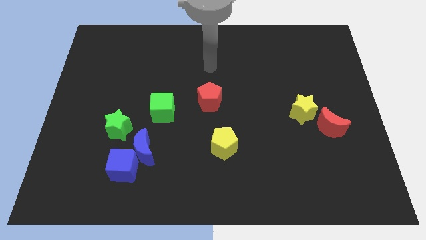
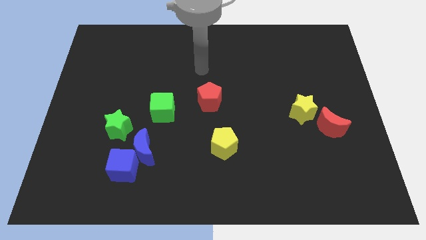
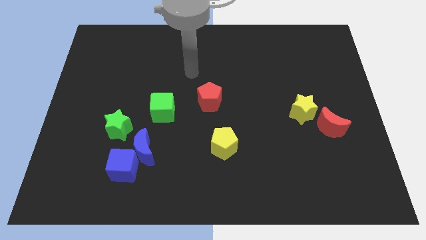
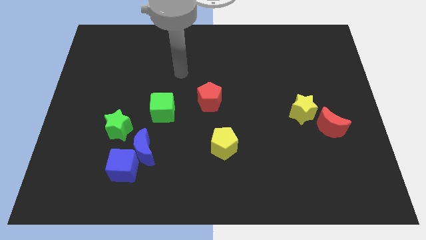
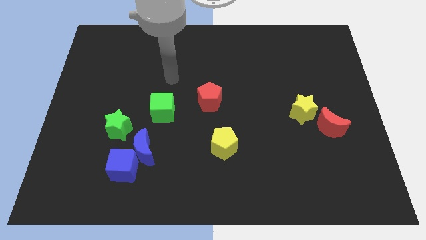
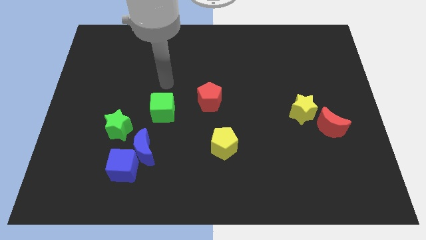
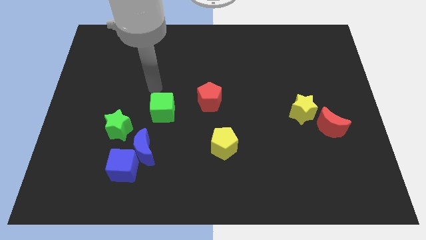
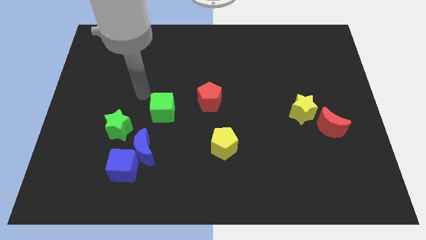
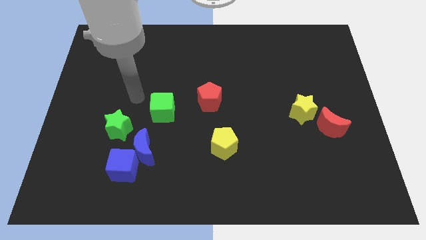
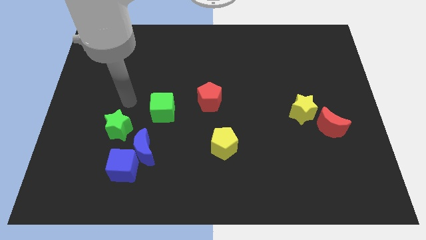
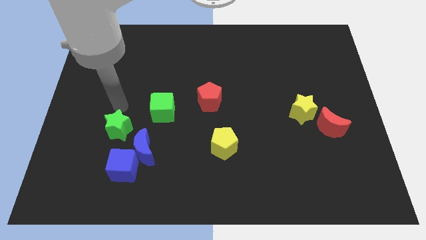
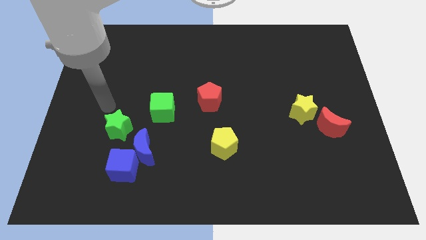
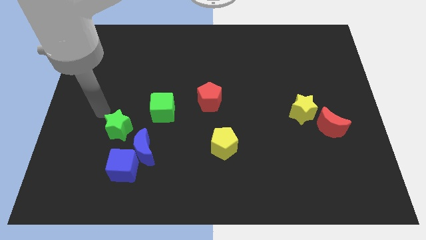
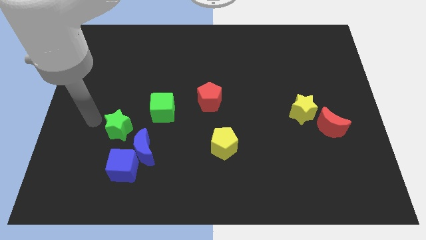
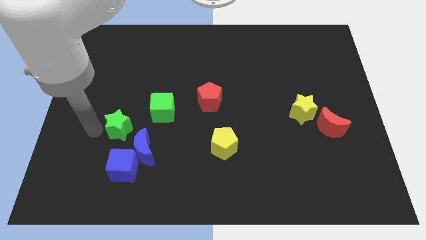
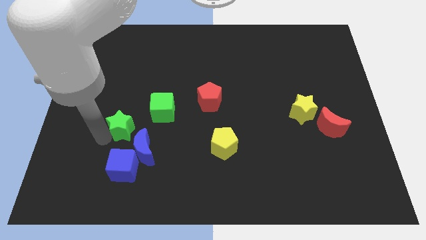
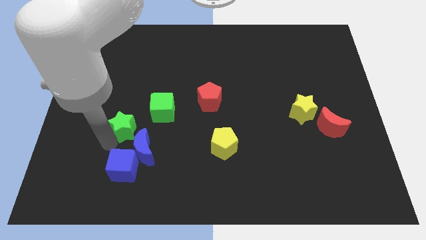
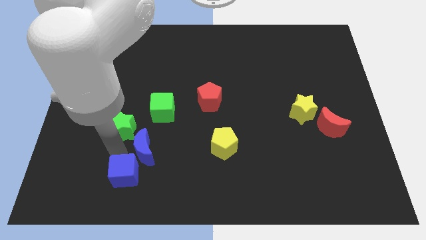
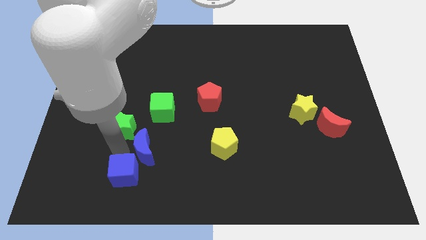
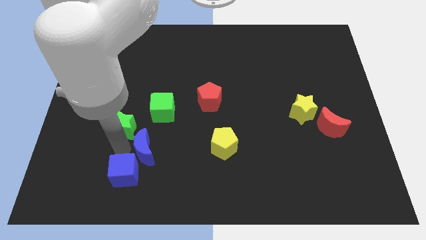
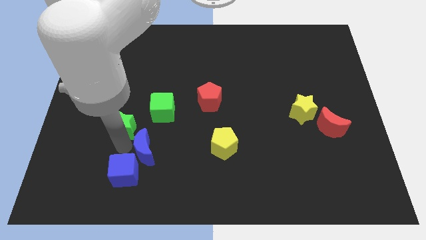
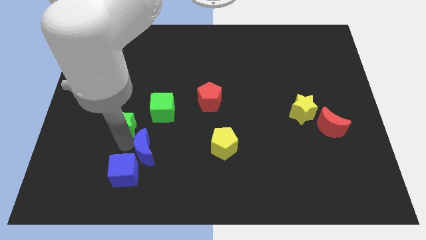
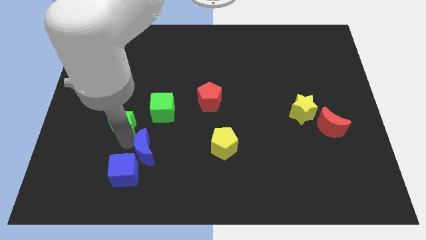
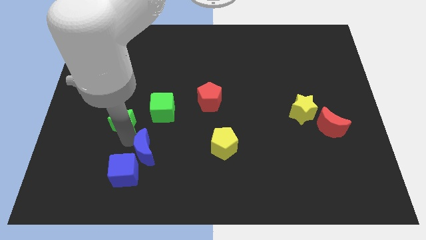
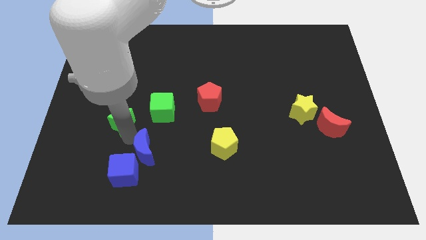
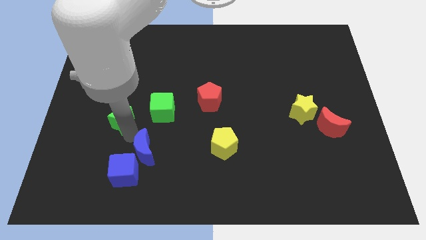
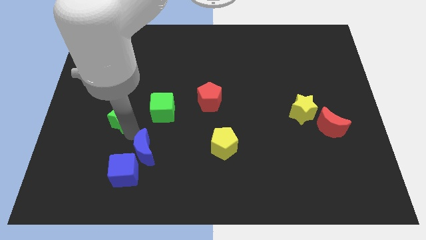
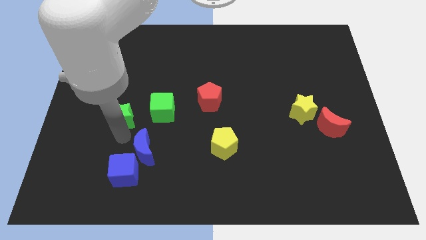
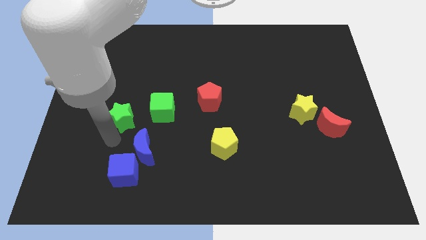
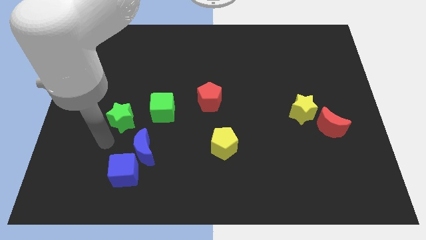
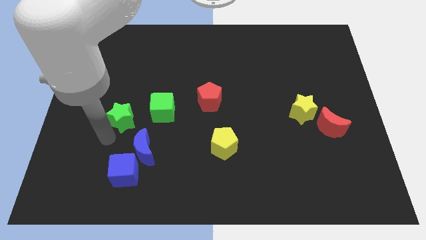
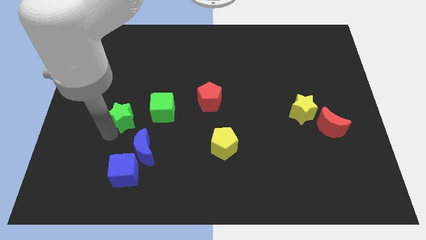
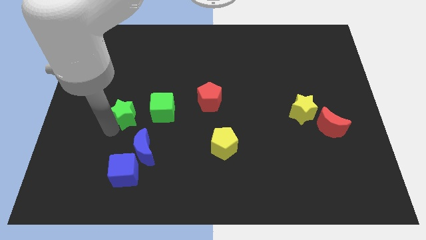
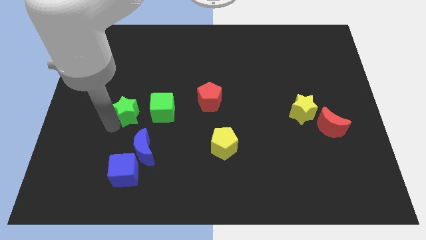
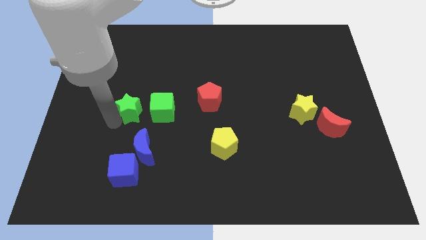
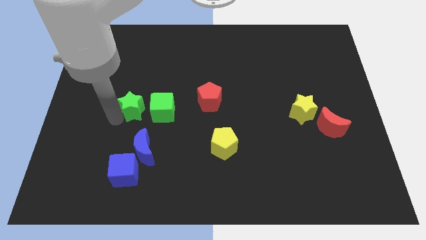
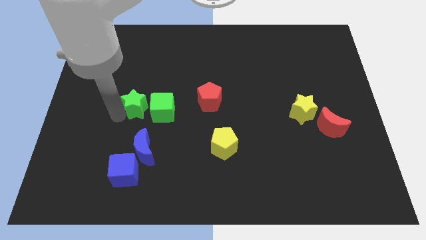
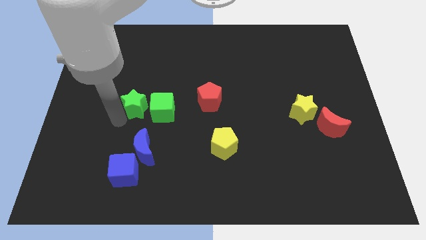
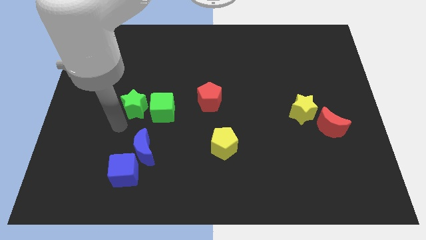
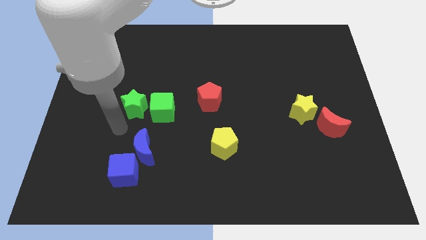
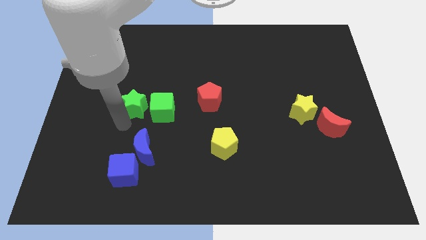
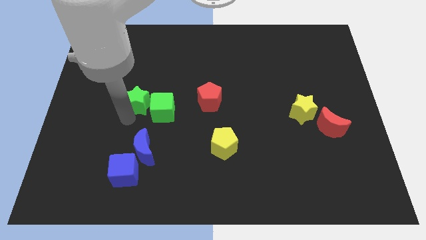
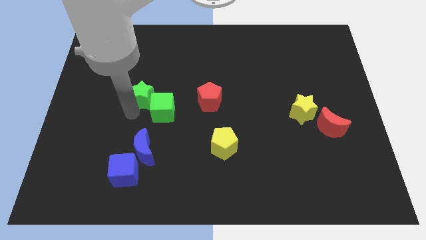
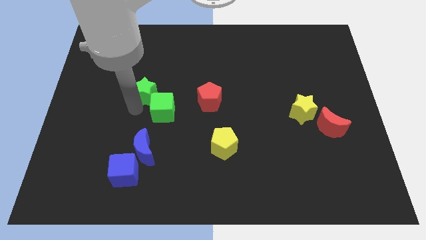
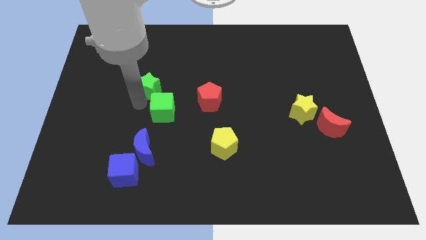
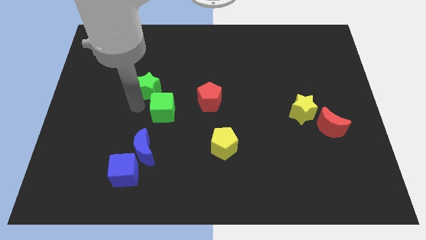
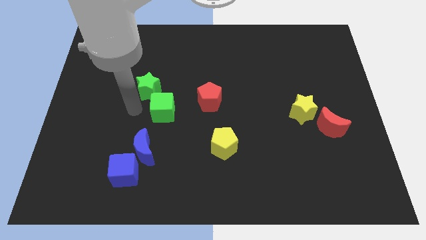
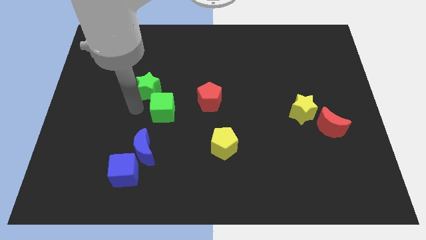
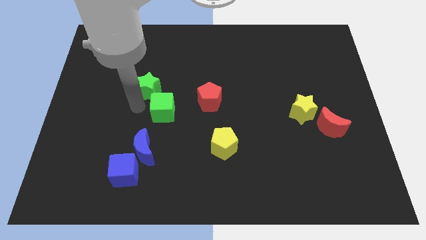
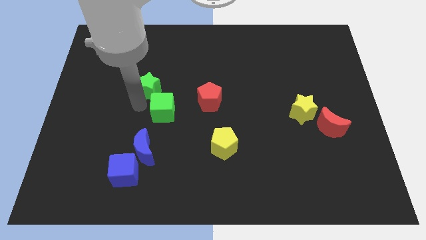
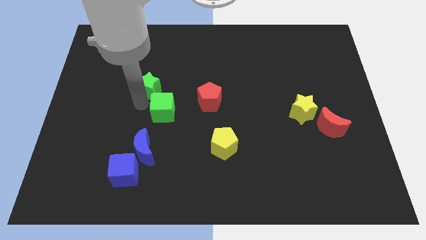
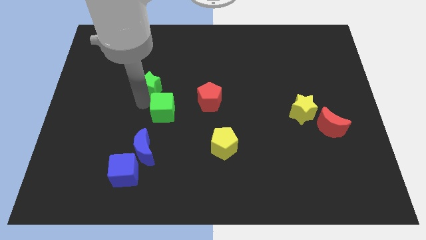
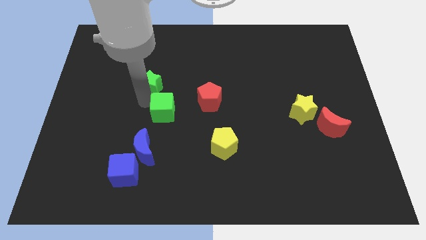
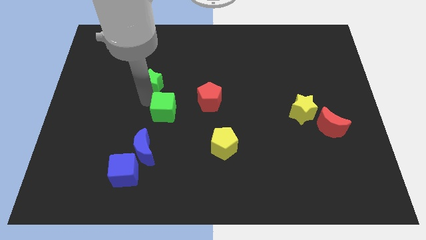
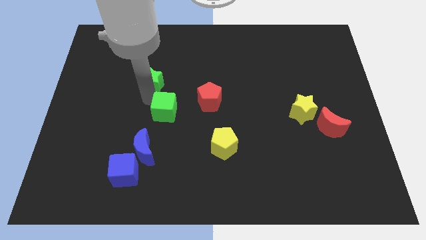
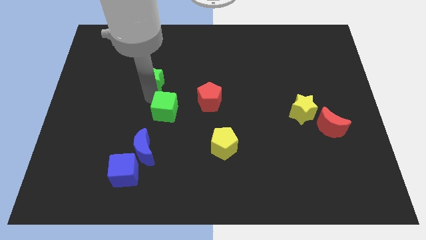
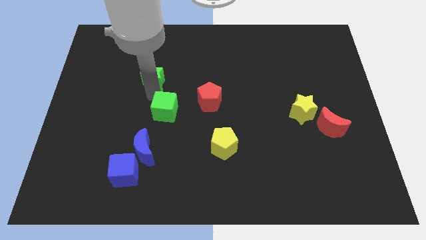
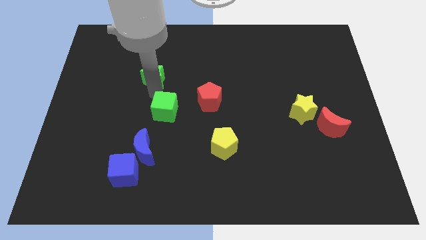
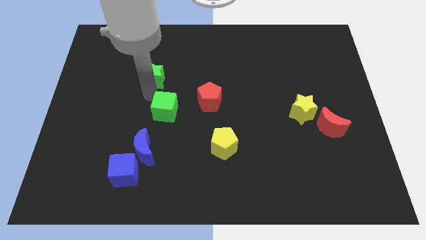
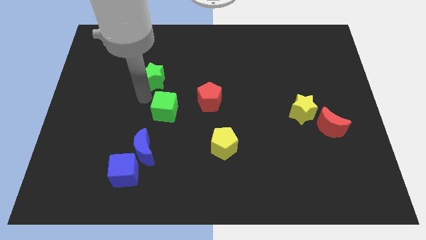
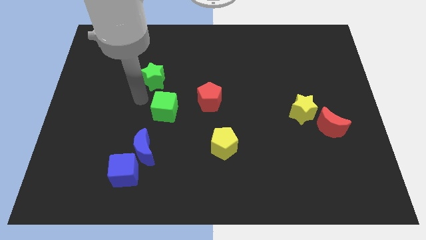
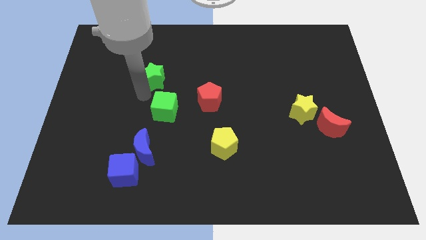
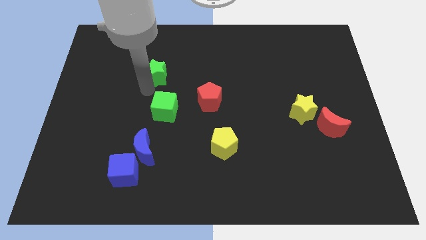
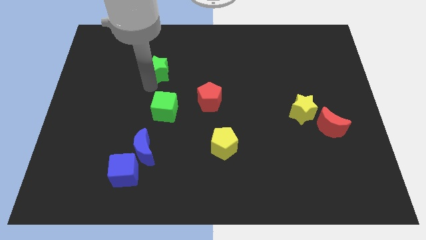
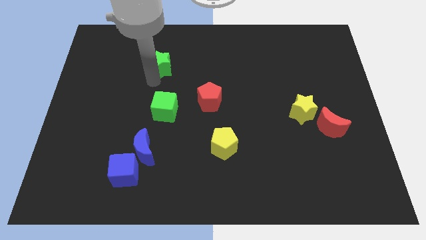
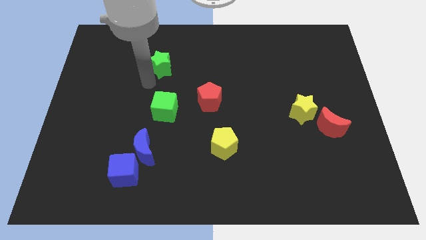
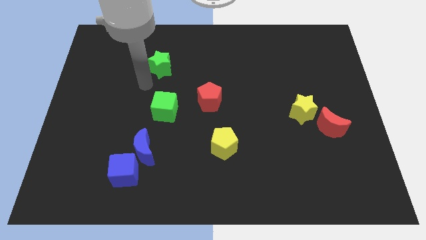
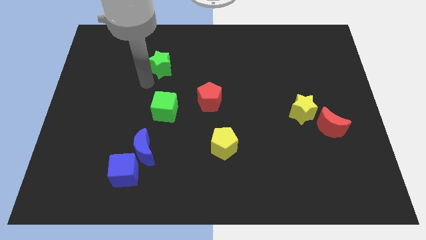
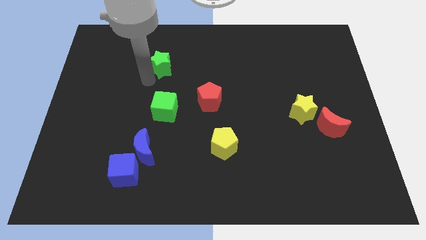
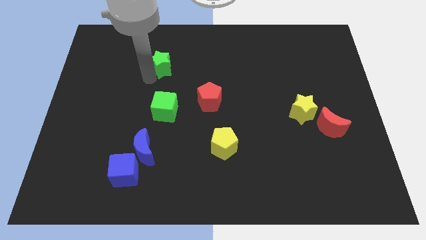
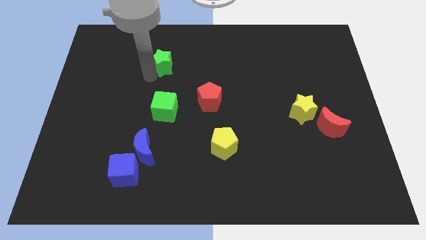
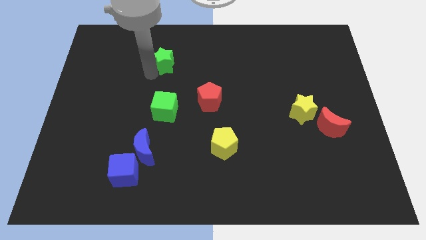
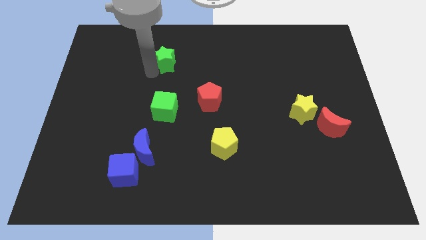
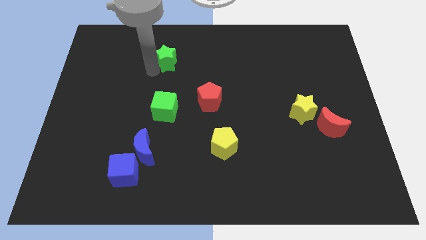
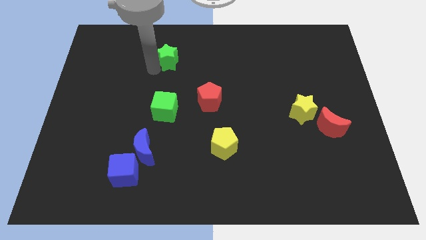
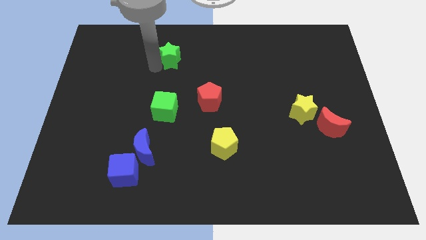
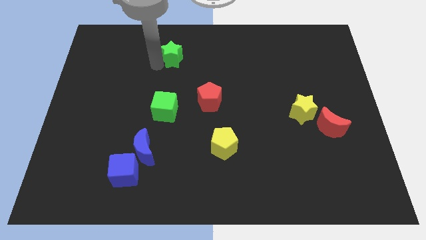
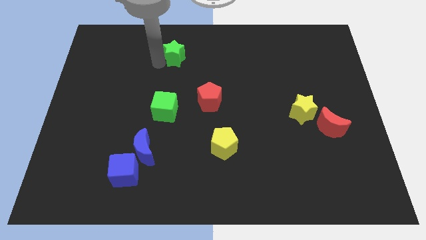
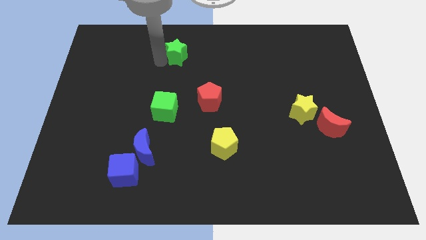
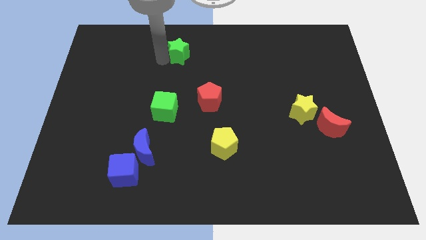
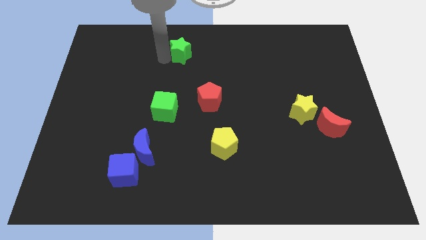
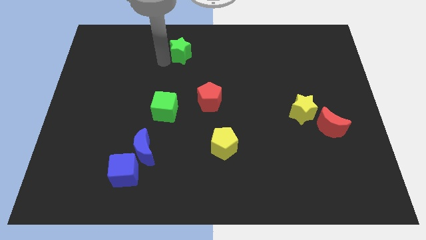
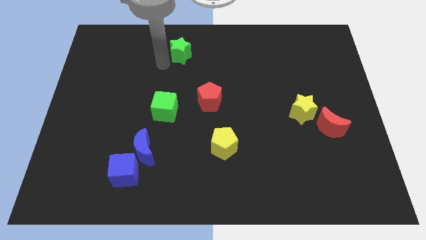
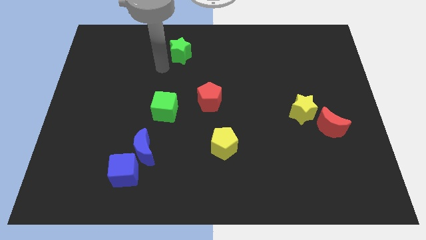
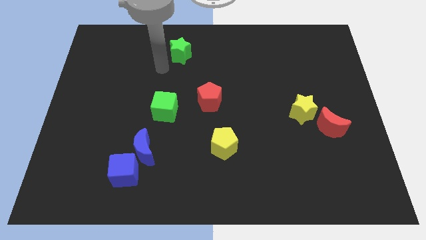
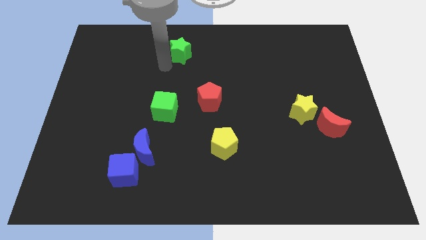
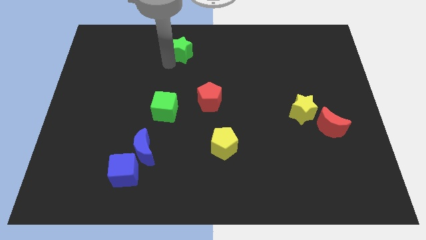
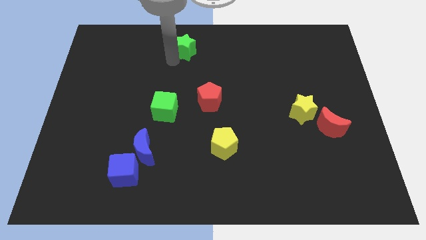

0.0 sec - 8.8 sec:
move the green star to the top
